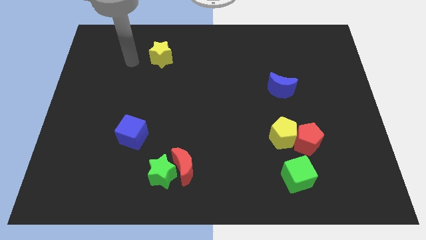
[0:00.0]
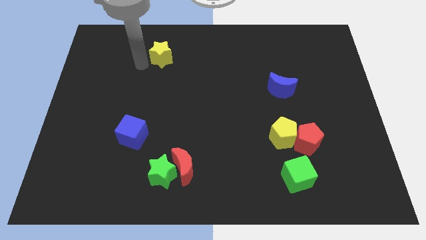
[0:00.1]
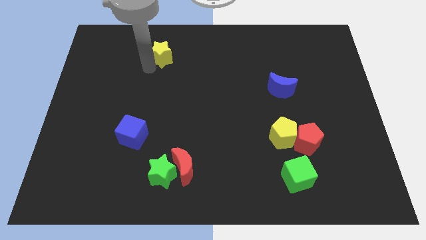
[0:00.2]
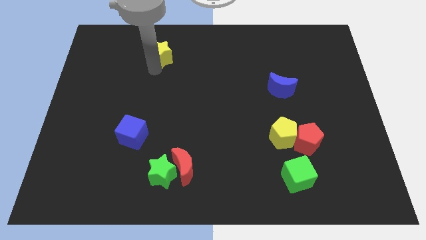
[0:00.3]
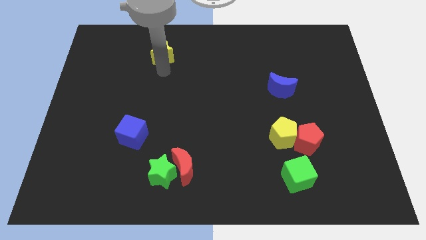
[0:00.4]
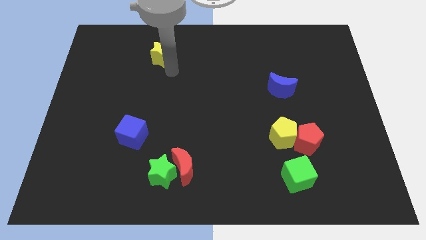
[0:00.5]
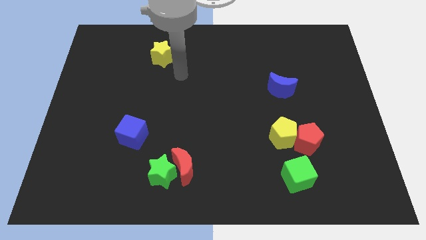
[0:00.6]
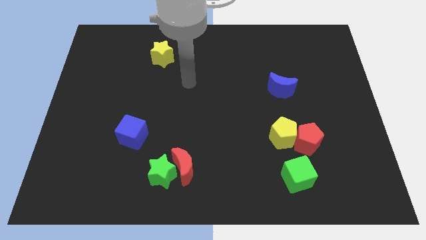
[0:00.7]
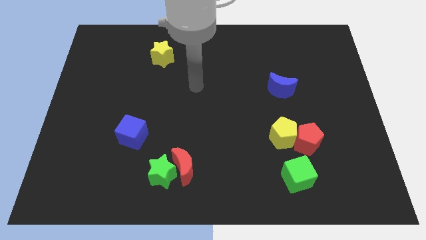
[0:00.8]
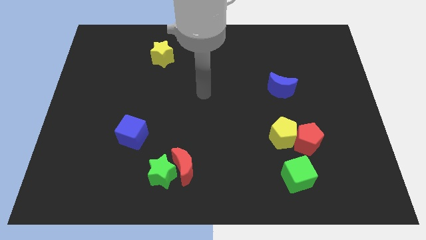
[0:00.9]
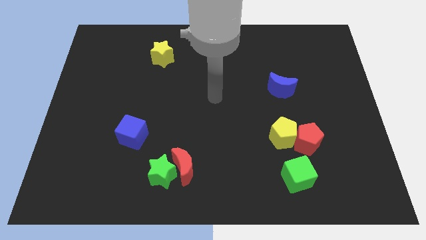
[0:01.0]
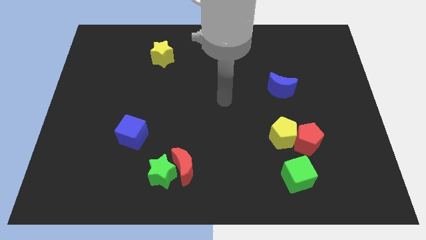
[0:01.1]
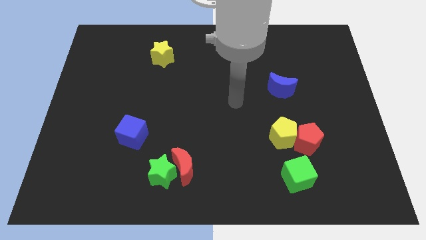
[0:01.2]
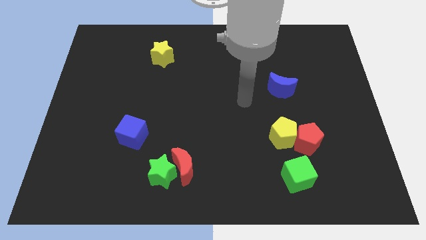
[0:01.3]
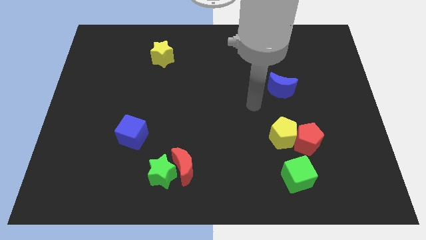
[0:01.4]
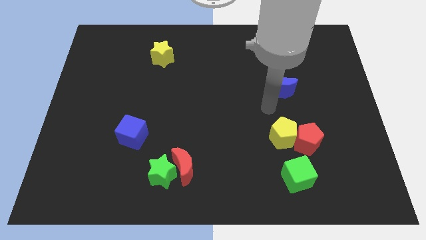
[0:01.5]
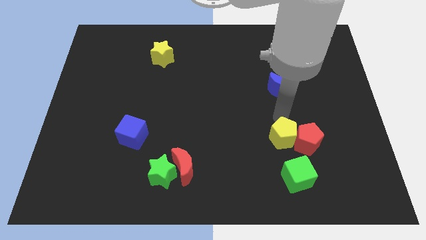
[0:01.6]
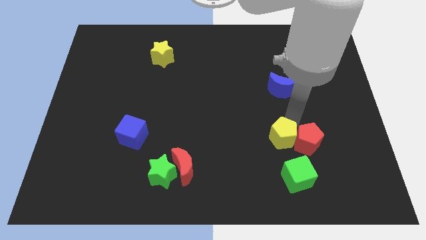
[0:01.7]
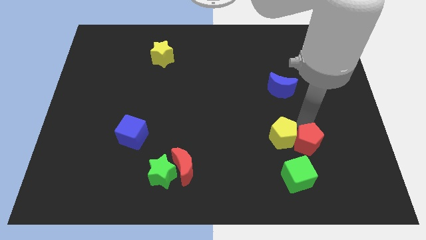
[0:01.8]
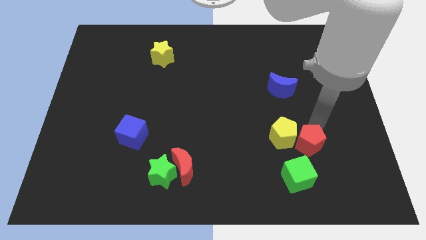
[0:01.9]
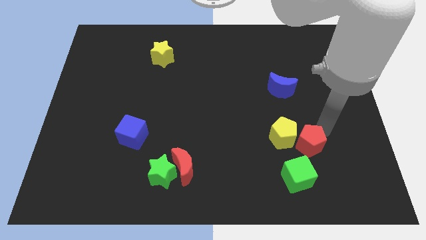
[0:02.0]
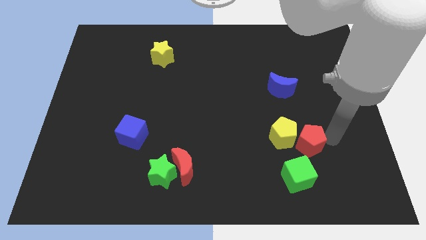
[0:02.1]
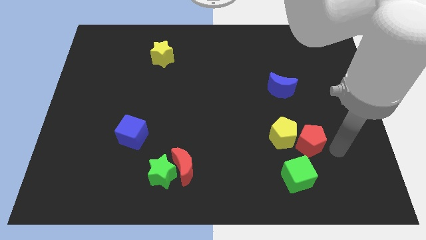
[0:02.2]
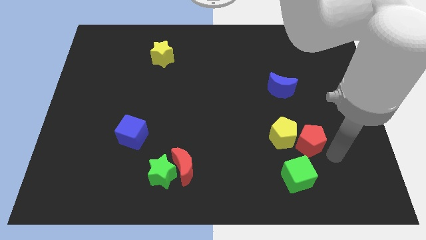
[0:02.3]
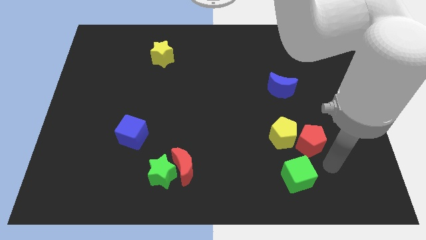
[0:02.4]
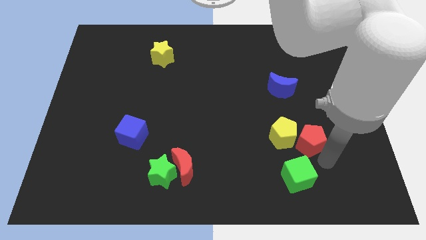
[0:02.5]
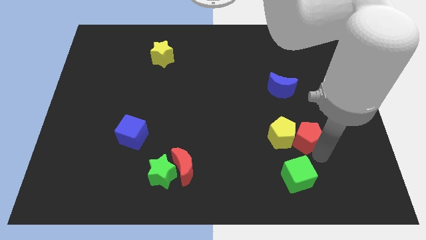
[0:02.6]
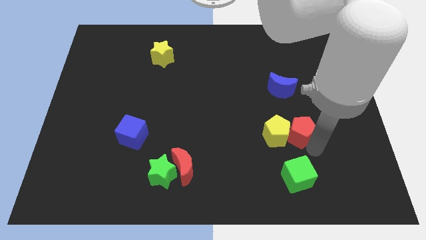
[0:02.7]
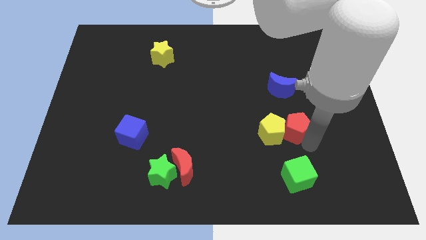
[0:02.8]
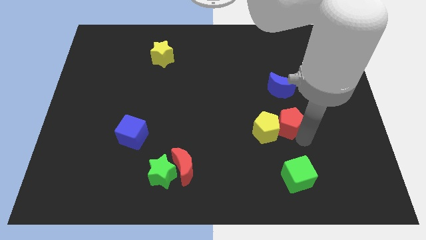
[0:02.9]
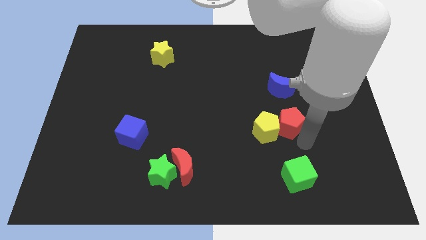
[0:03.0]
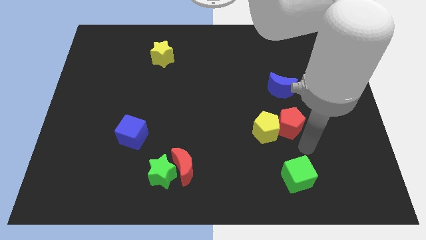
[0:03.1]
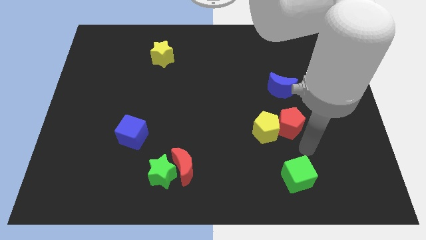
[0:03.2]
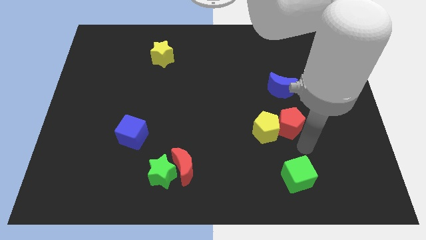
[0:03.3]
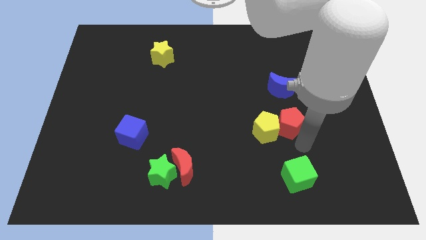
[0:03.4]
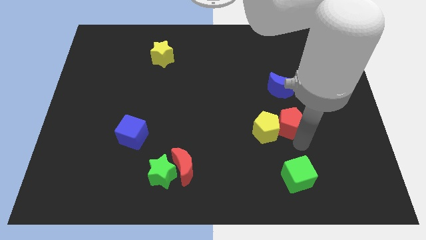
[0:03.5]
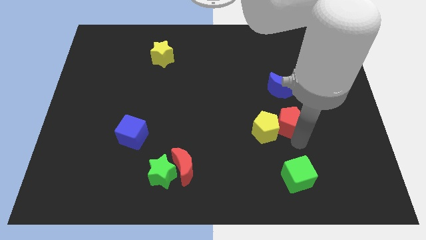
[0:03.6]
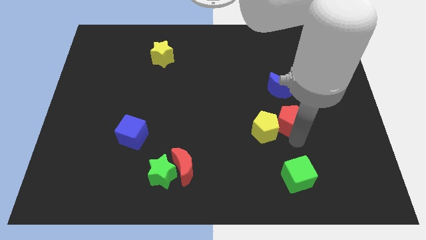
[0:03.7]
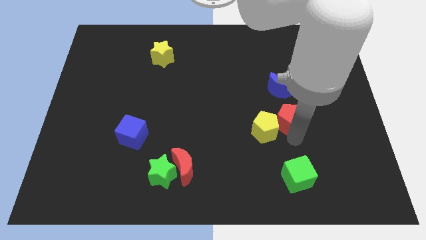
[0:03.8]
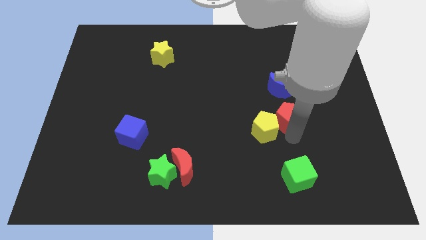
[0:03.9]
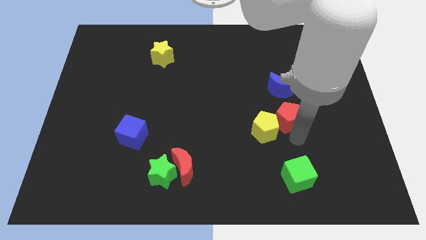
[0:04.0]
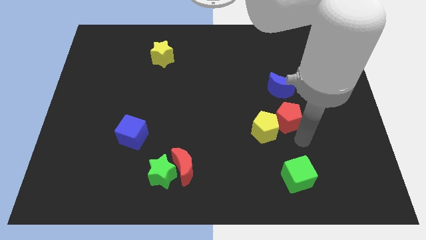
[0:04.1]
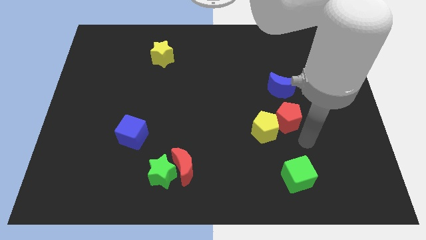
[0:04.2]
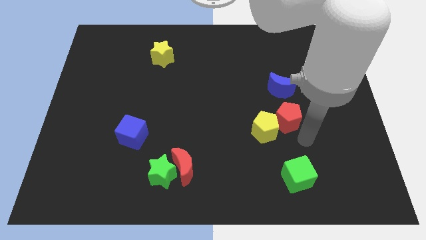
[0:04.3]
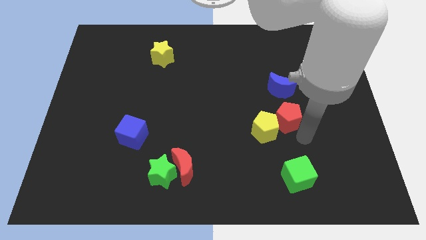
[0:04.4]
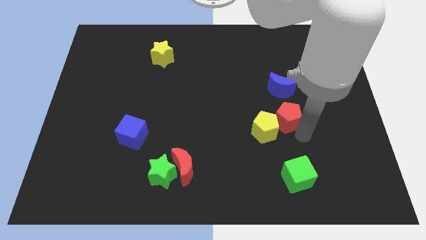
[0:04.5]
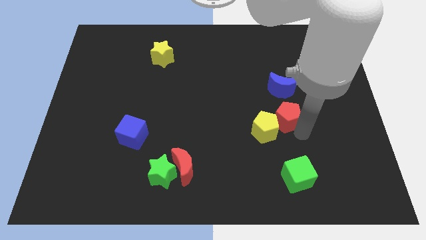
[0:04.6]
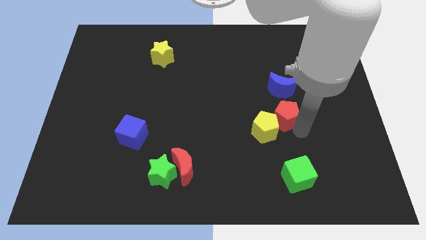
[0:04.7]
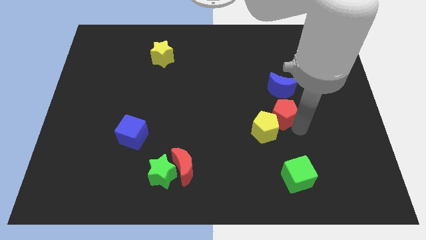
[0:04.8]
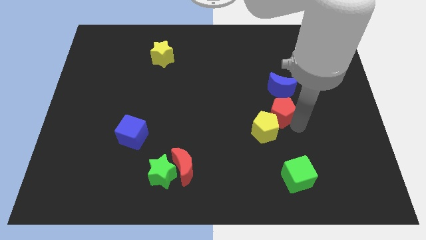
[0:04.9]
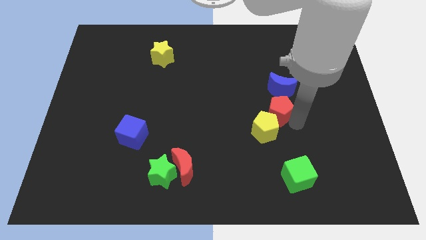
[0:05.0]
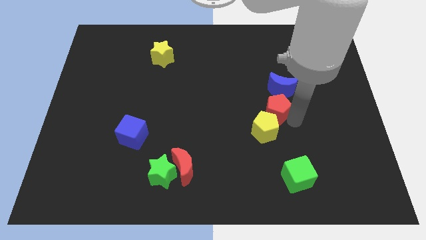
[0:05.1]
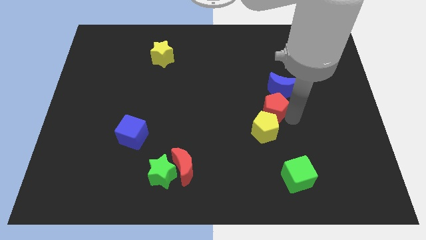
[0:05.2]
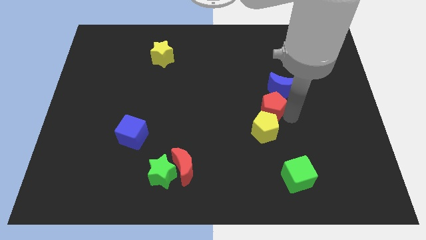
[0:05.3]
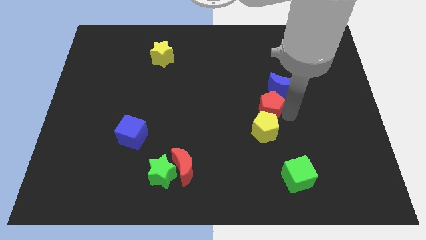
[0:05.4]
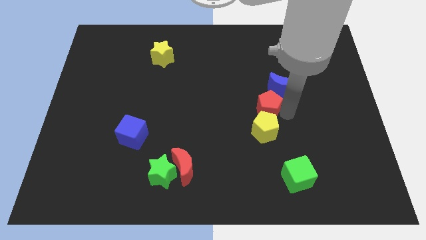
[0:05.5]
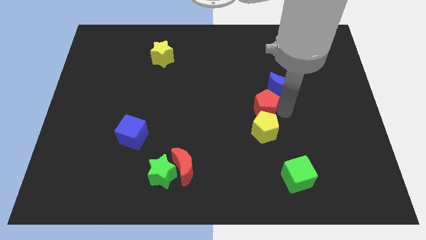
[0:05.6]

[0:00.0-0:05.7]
push the red pentagon to the center of the board
